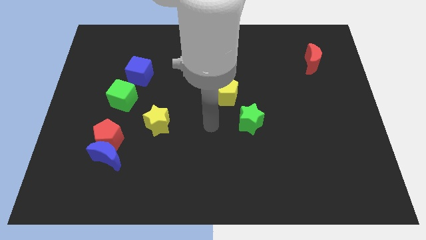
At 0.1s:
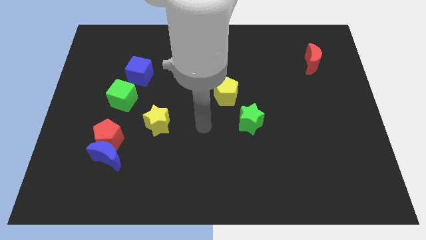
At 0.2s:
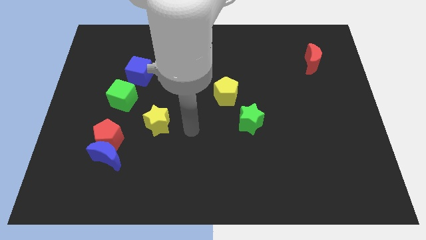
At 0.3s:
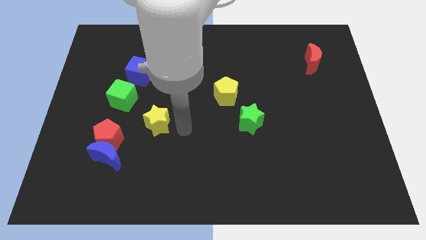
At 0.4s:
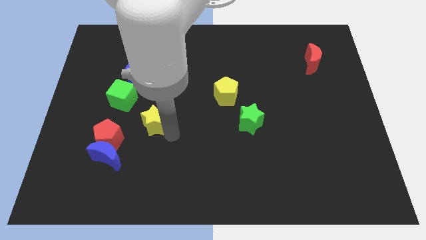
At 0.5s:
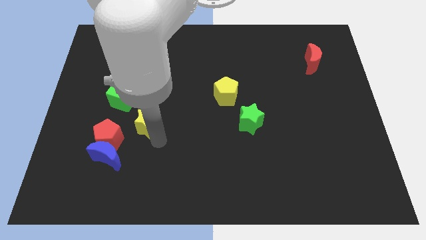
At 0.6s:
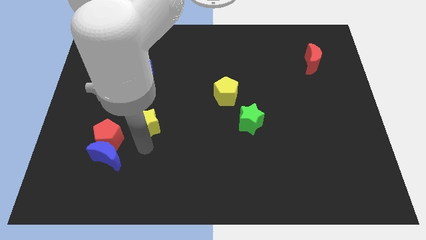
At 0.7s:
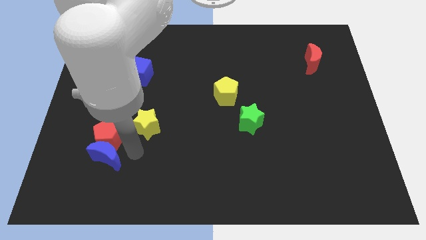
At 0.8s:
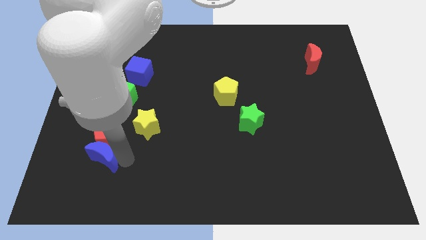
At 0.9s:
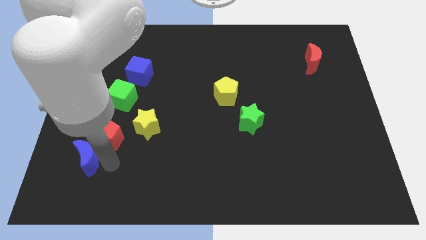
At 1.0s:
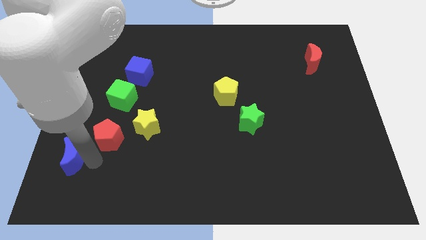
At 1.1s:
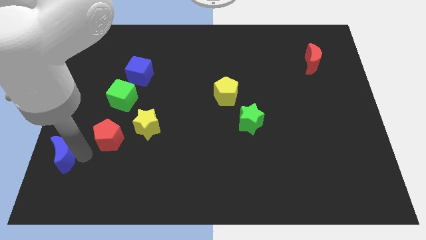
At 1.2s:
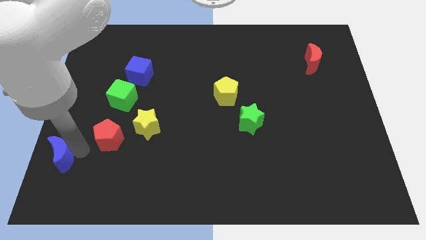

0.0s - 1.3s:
pull the red pentagon apart from the blue moon

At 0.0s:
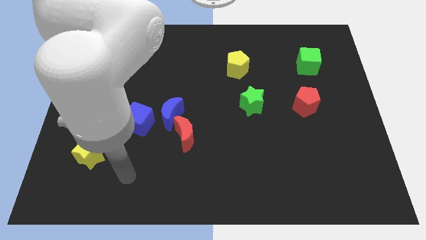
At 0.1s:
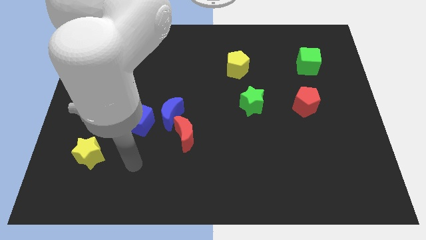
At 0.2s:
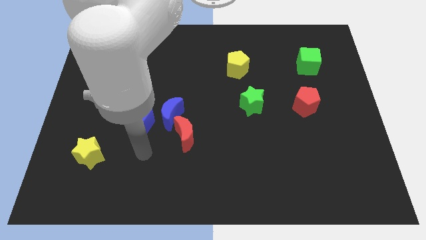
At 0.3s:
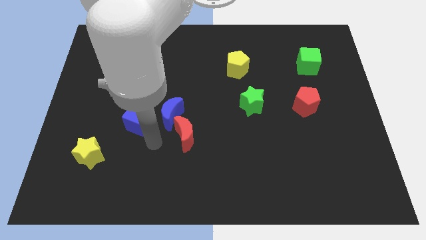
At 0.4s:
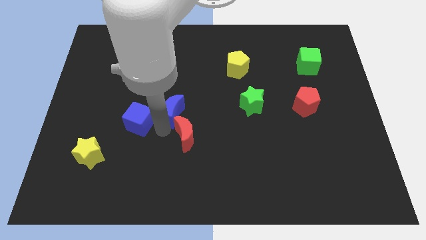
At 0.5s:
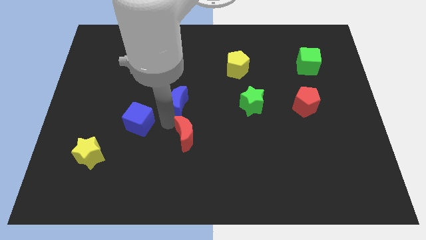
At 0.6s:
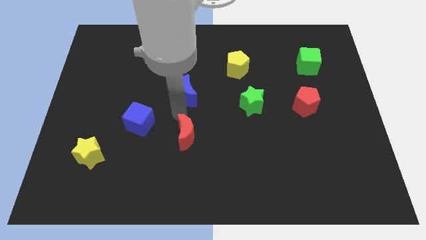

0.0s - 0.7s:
separate the red moon from the blue moon

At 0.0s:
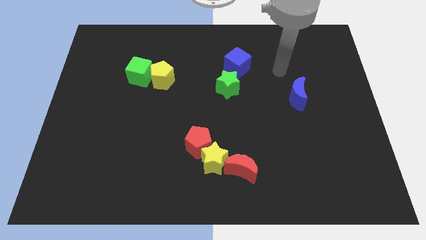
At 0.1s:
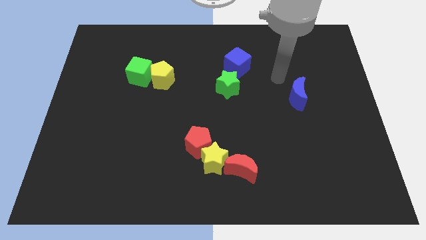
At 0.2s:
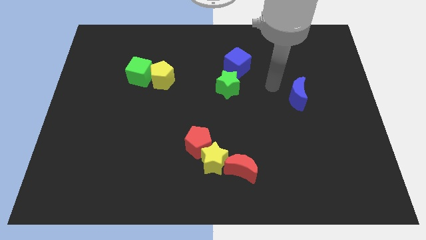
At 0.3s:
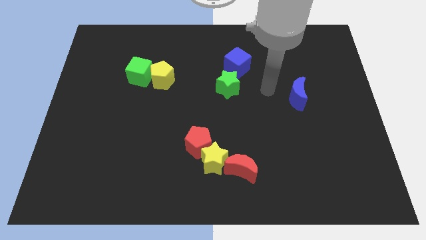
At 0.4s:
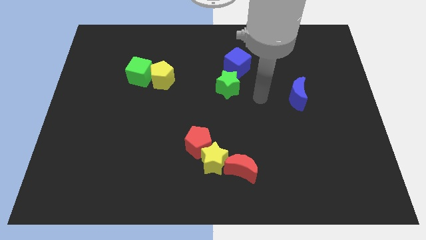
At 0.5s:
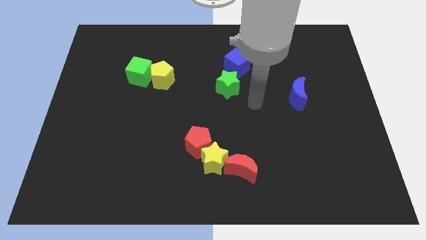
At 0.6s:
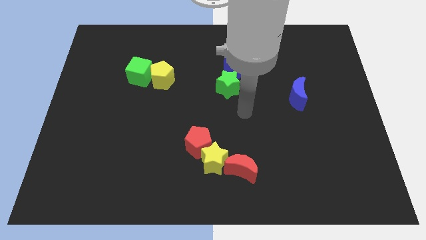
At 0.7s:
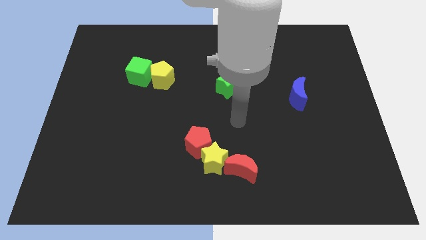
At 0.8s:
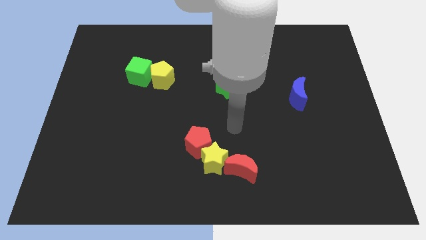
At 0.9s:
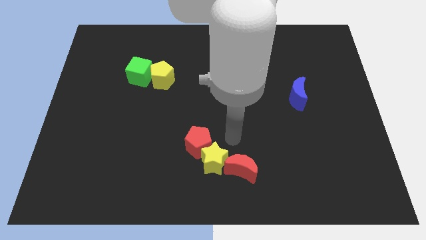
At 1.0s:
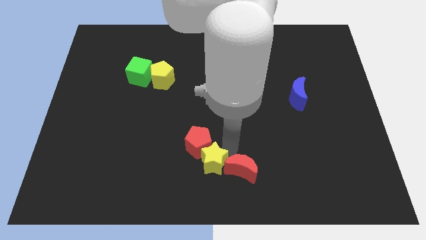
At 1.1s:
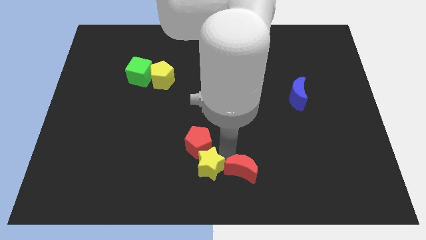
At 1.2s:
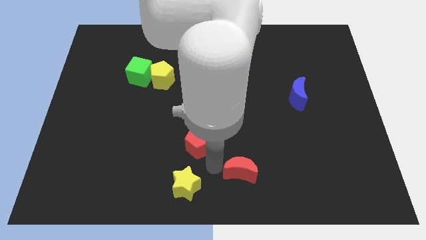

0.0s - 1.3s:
move the red pentagon away from the yellow star

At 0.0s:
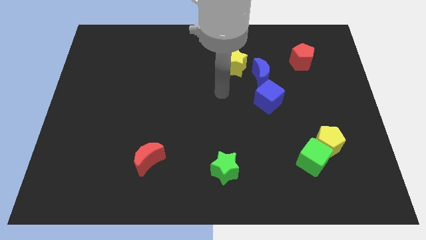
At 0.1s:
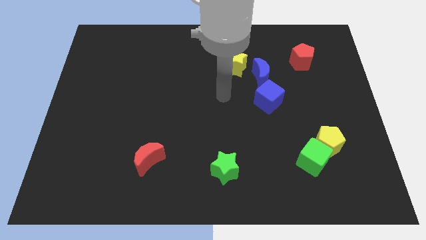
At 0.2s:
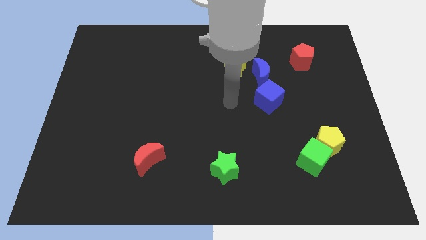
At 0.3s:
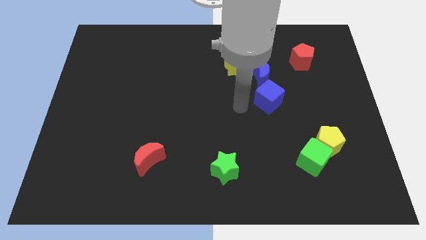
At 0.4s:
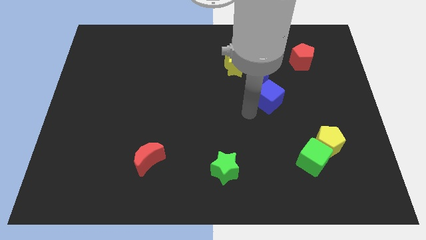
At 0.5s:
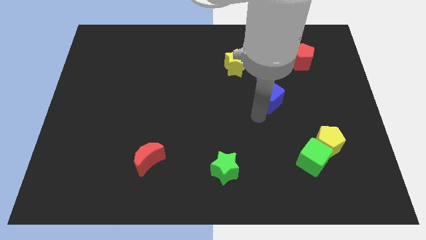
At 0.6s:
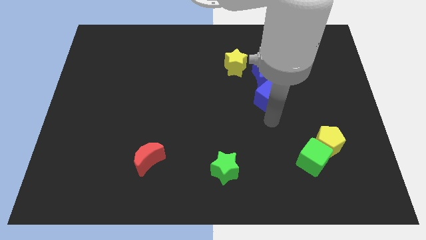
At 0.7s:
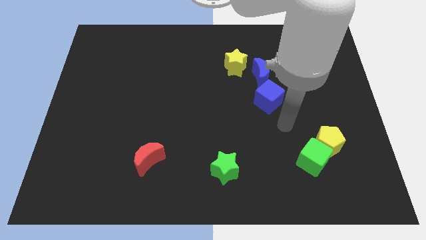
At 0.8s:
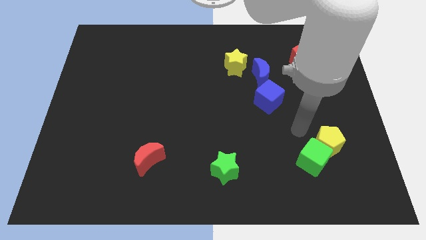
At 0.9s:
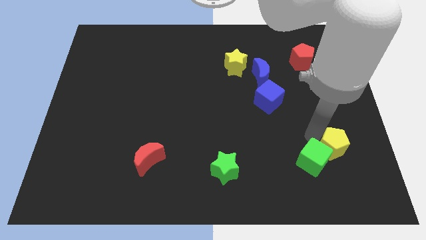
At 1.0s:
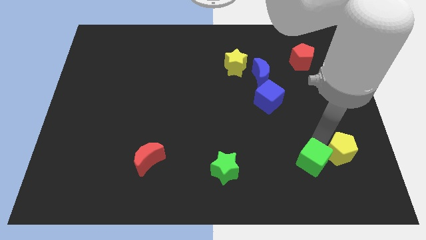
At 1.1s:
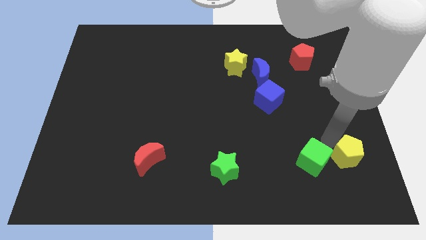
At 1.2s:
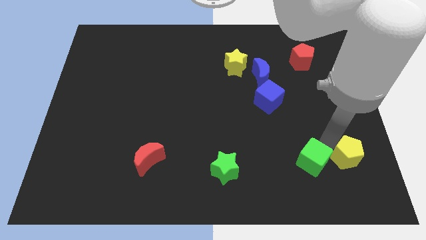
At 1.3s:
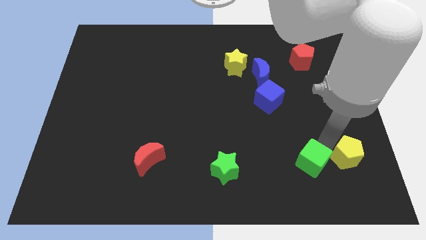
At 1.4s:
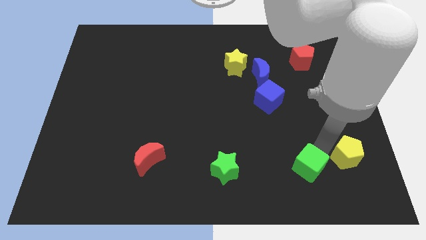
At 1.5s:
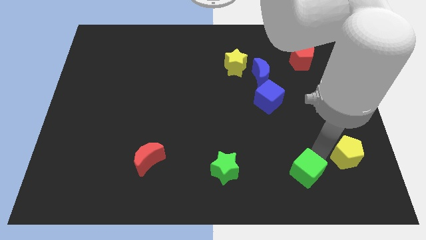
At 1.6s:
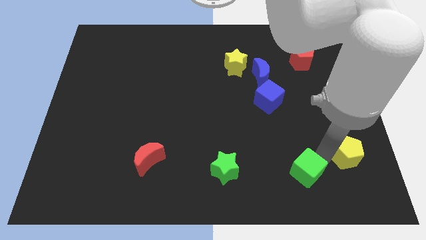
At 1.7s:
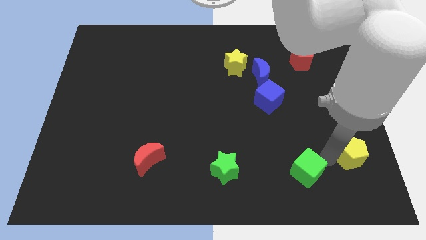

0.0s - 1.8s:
separate the green cube from the yellow pentagon

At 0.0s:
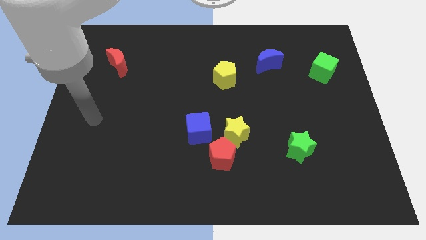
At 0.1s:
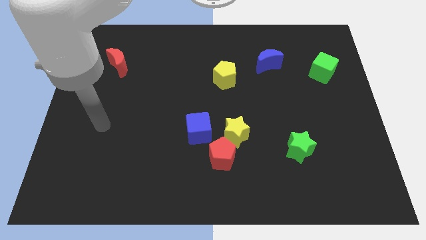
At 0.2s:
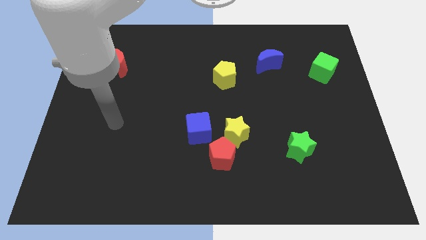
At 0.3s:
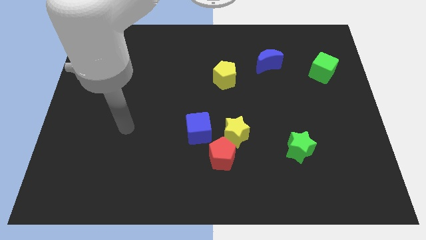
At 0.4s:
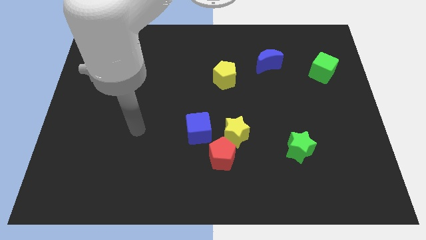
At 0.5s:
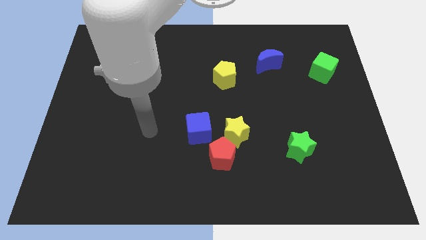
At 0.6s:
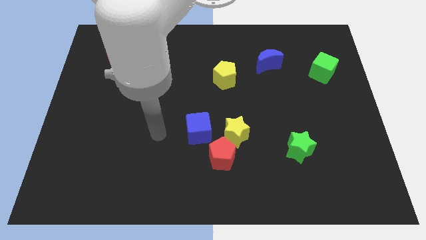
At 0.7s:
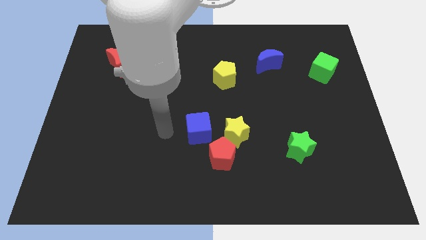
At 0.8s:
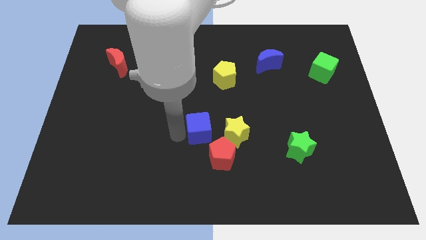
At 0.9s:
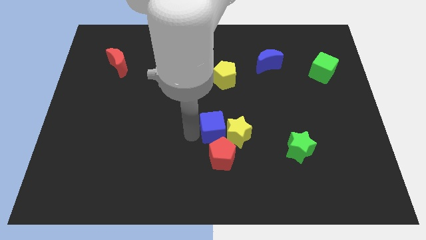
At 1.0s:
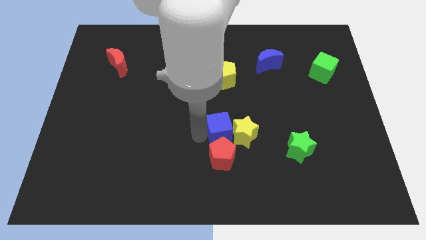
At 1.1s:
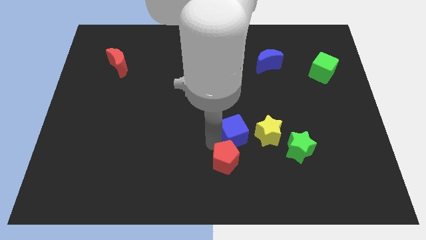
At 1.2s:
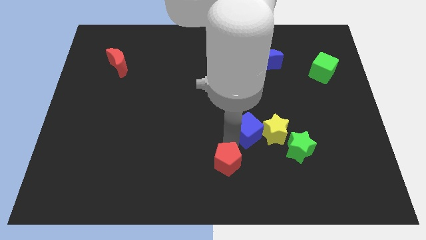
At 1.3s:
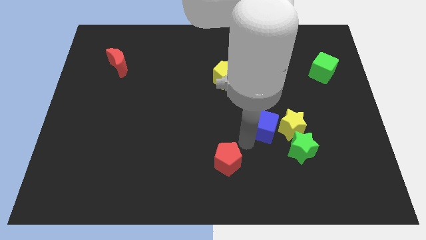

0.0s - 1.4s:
pull the yellow star apart from the red pentagon and blue cube

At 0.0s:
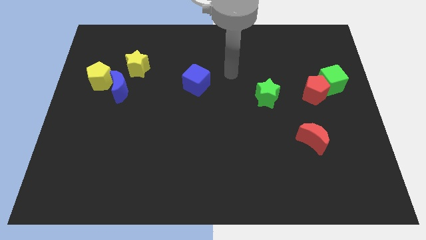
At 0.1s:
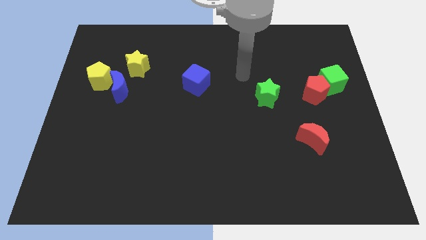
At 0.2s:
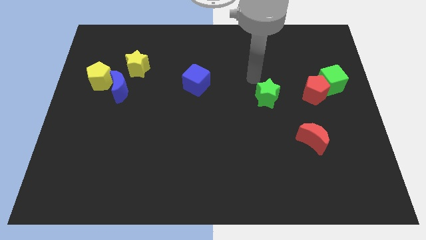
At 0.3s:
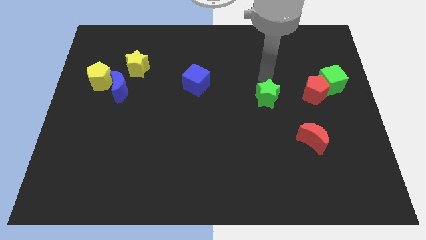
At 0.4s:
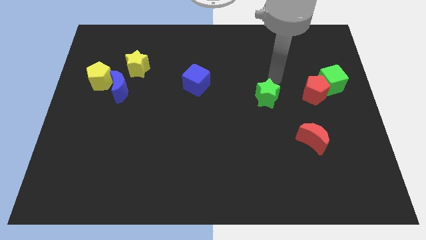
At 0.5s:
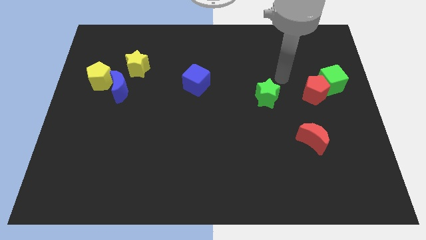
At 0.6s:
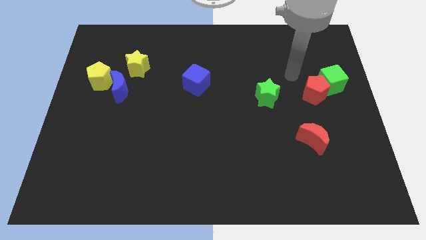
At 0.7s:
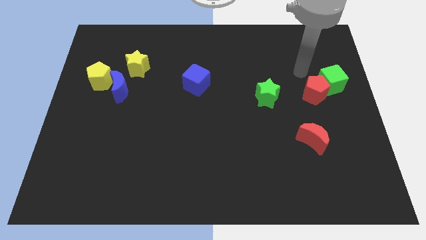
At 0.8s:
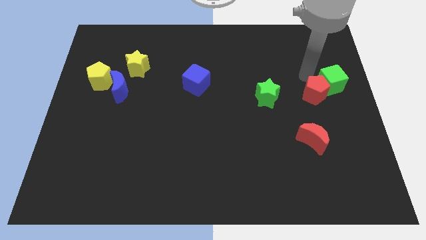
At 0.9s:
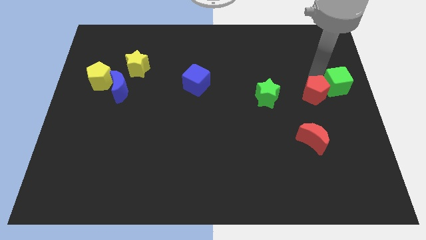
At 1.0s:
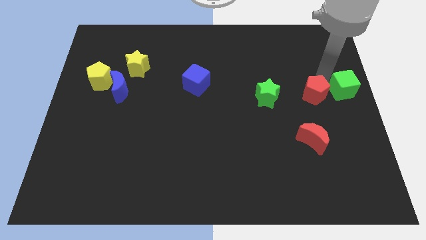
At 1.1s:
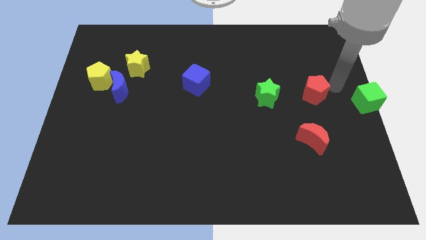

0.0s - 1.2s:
separate the red pentagon from the green cube

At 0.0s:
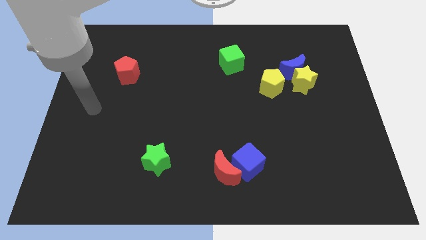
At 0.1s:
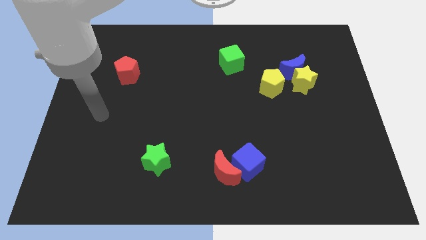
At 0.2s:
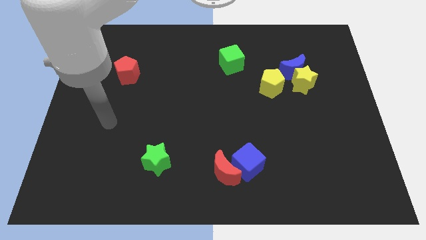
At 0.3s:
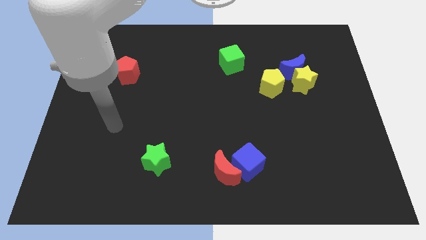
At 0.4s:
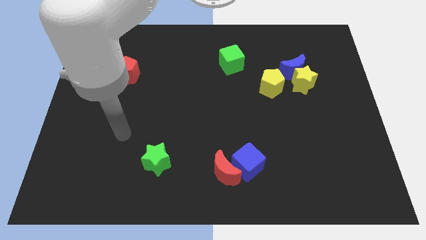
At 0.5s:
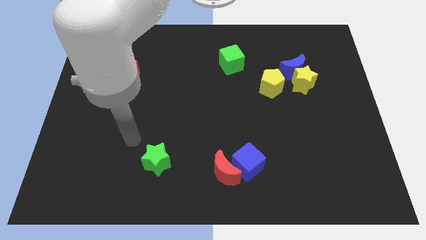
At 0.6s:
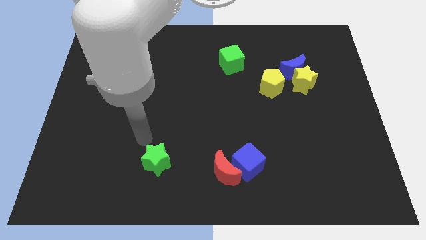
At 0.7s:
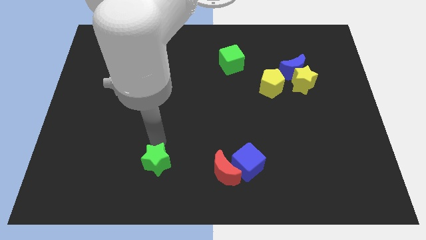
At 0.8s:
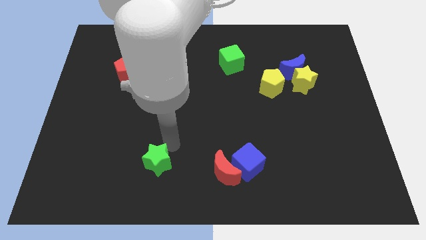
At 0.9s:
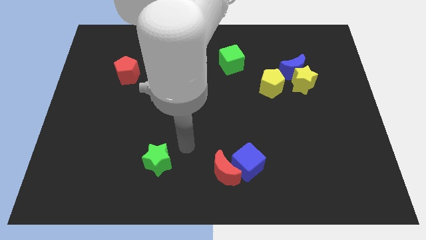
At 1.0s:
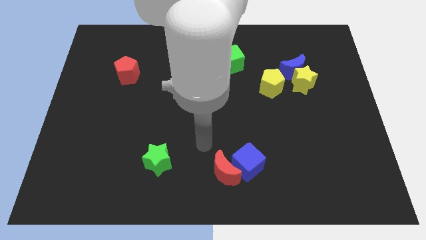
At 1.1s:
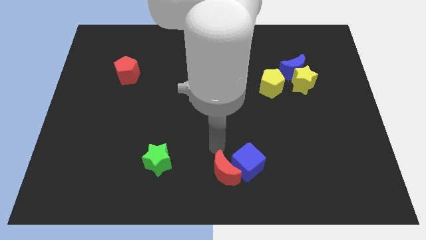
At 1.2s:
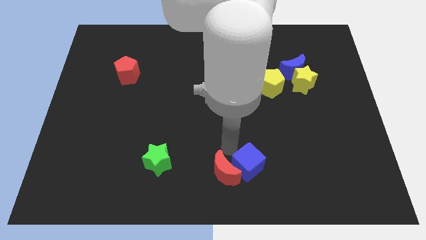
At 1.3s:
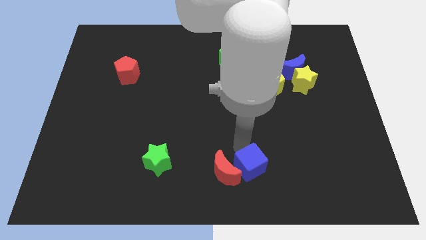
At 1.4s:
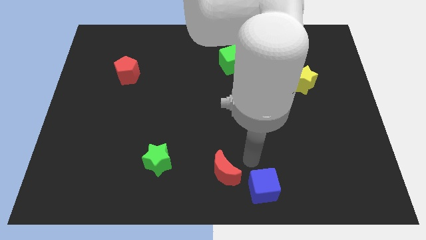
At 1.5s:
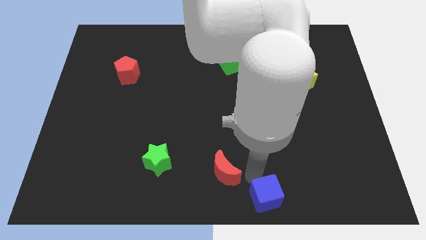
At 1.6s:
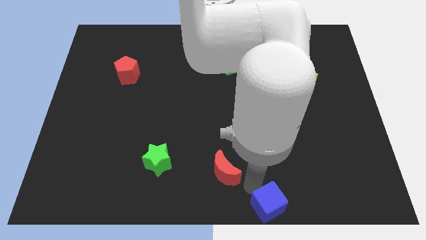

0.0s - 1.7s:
pull the red moon apart from the blue cube
